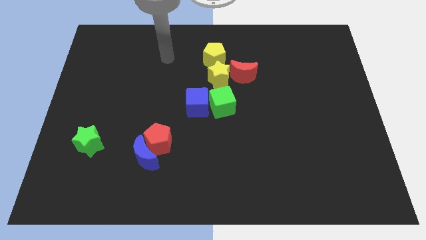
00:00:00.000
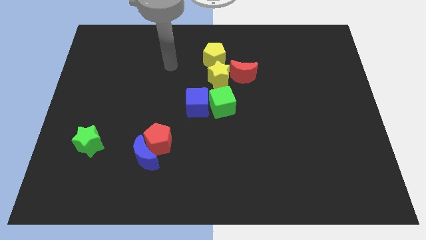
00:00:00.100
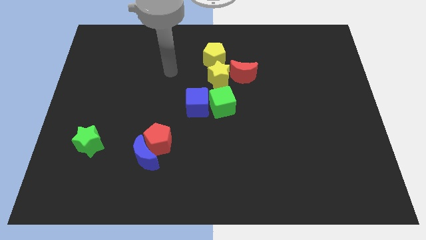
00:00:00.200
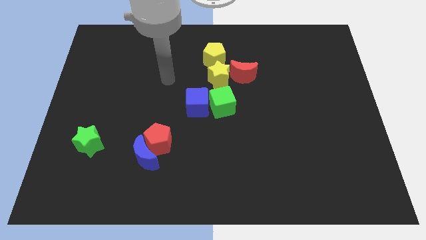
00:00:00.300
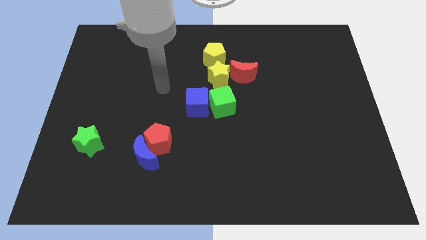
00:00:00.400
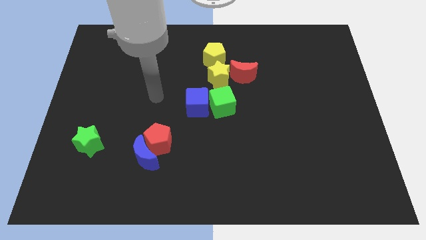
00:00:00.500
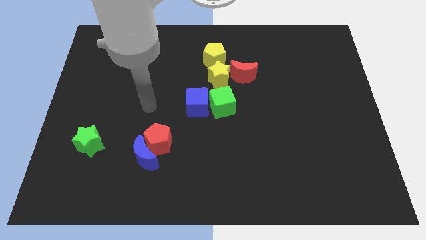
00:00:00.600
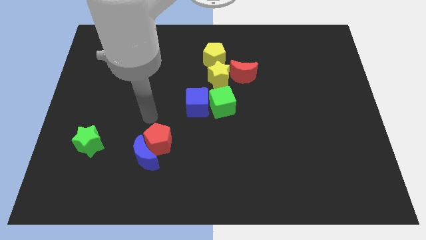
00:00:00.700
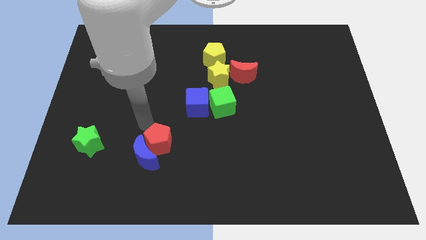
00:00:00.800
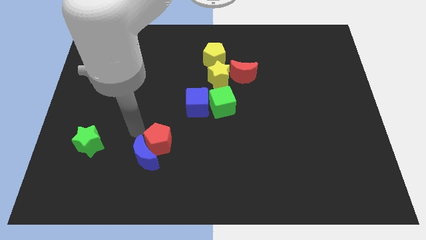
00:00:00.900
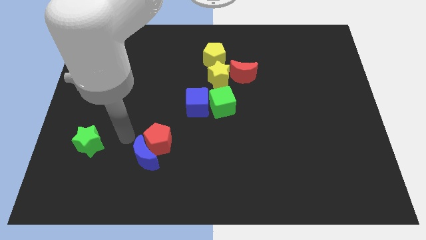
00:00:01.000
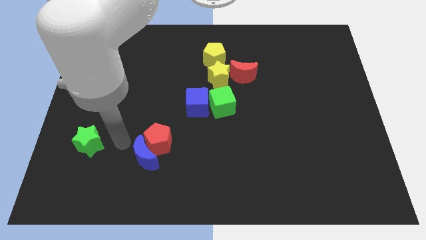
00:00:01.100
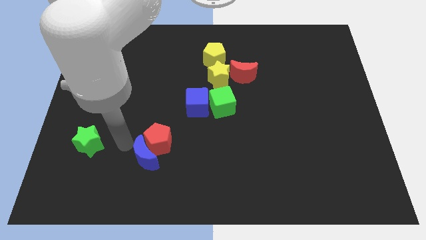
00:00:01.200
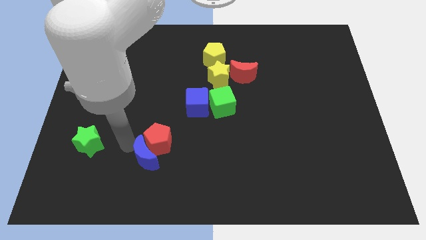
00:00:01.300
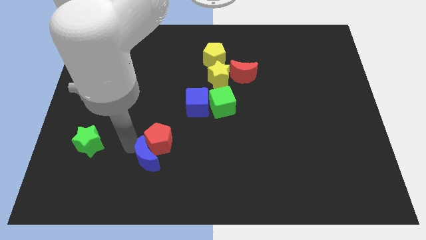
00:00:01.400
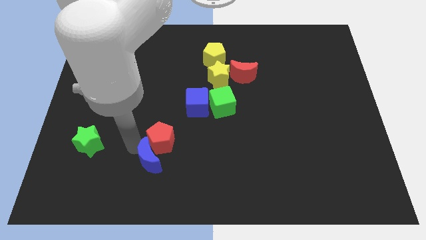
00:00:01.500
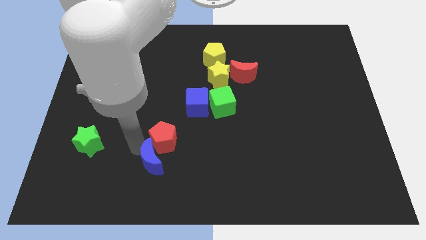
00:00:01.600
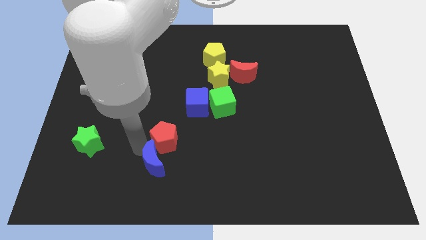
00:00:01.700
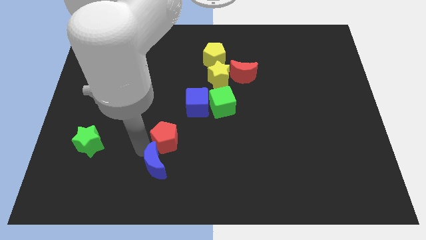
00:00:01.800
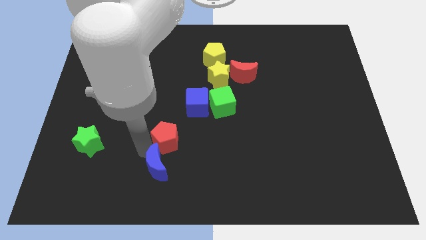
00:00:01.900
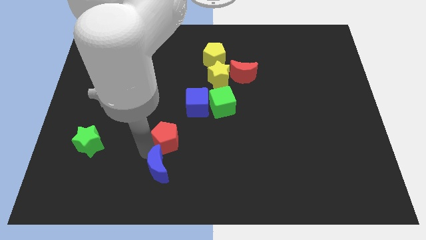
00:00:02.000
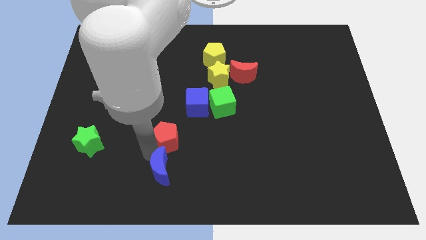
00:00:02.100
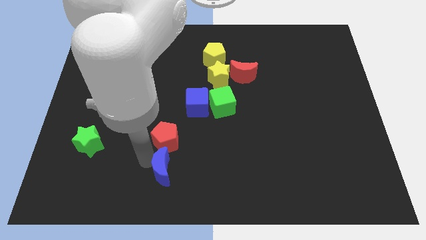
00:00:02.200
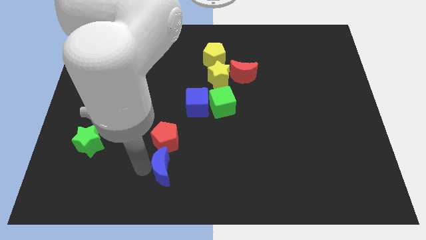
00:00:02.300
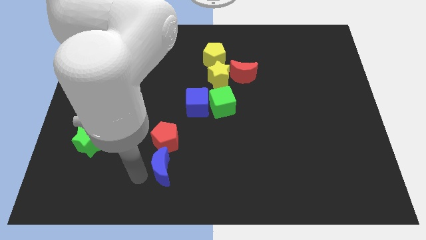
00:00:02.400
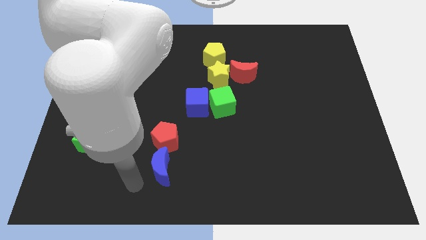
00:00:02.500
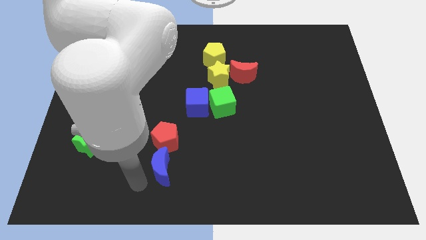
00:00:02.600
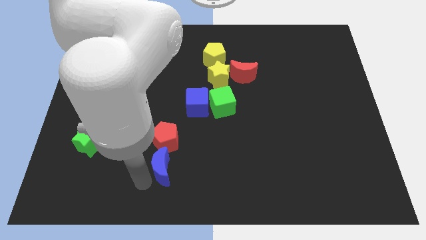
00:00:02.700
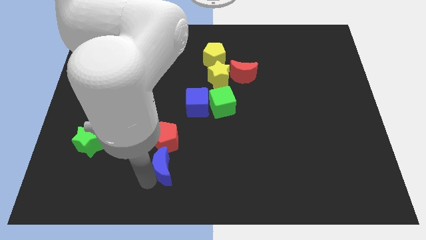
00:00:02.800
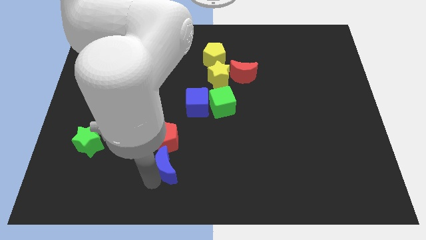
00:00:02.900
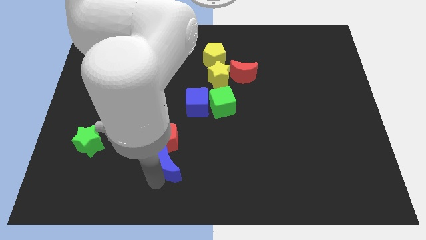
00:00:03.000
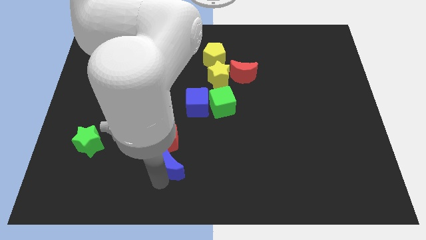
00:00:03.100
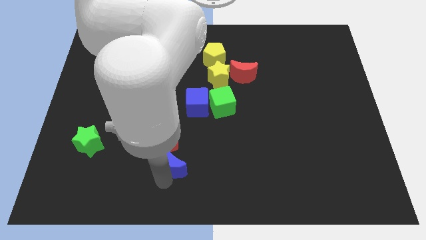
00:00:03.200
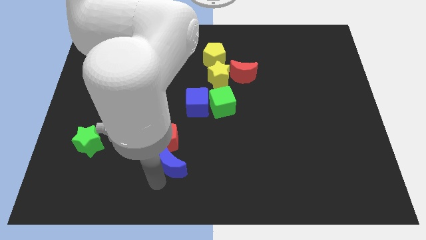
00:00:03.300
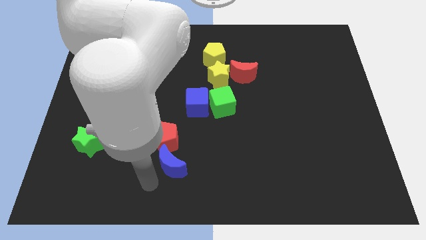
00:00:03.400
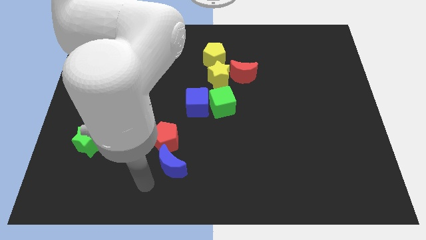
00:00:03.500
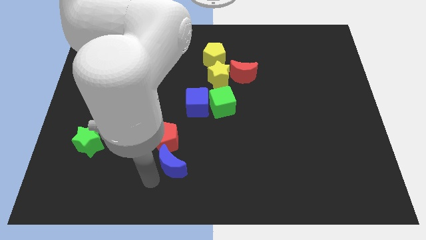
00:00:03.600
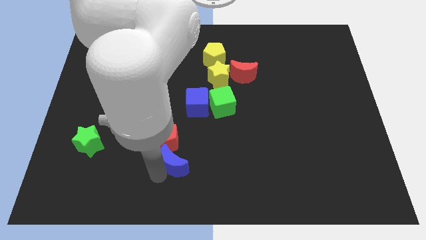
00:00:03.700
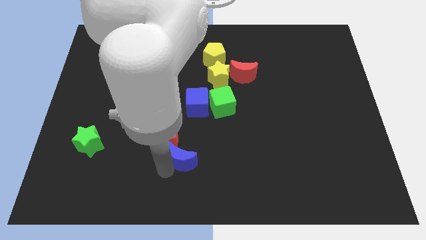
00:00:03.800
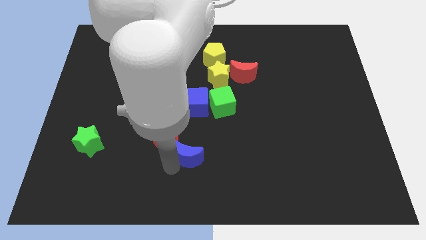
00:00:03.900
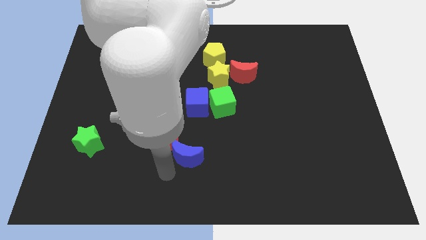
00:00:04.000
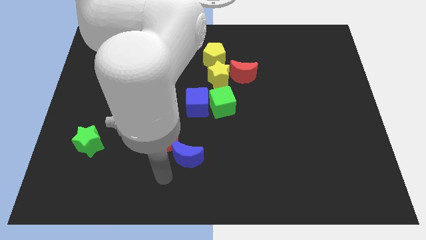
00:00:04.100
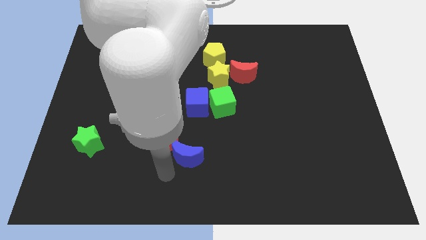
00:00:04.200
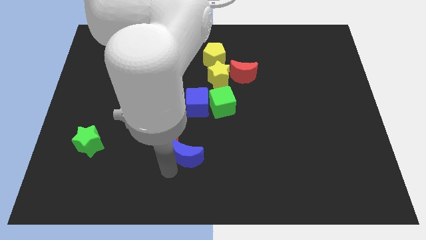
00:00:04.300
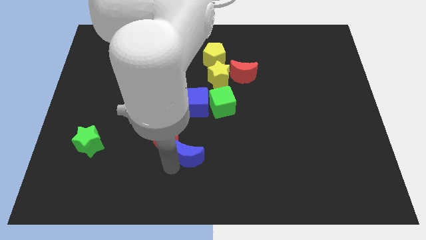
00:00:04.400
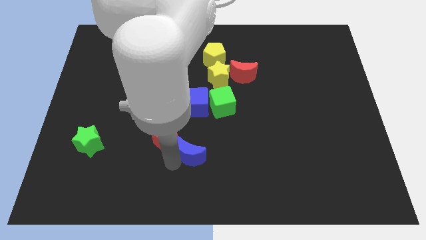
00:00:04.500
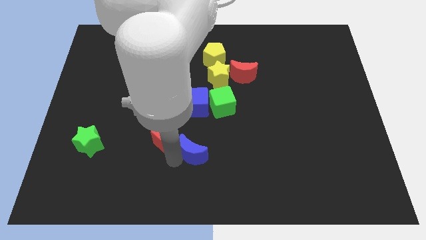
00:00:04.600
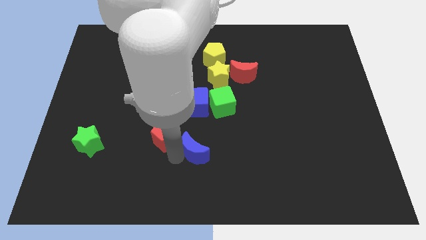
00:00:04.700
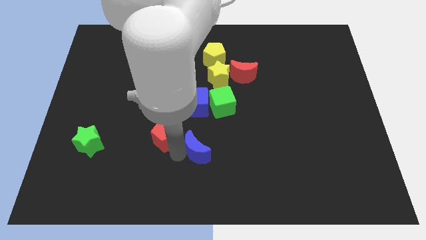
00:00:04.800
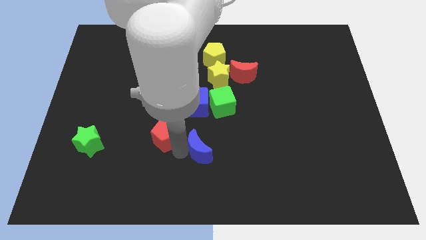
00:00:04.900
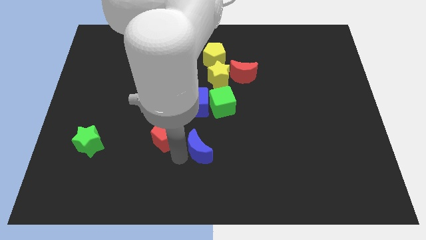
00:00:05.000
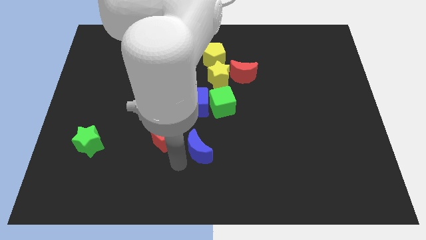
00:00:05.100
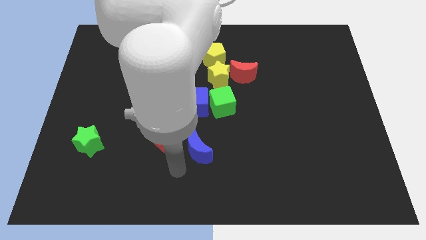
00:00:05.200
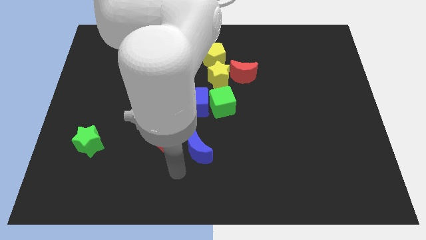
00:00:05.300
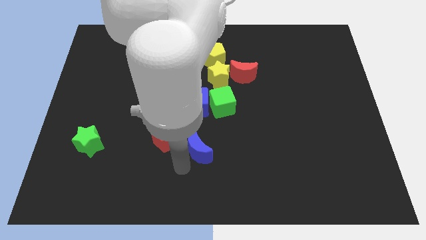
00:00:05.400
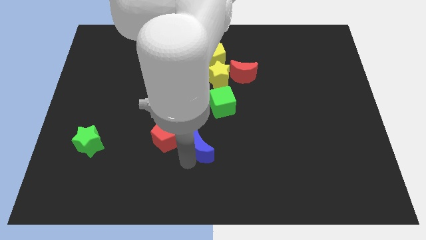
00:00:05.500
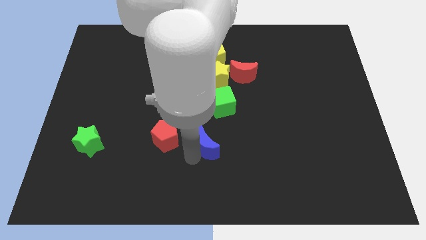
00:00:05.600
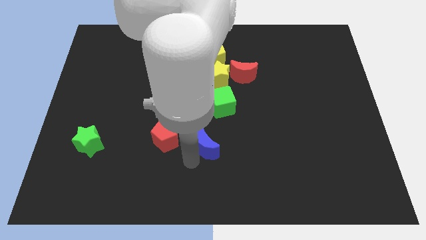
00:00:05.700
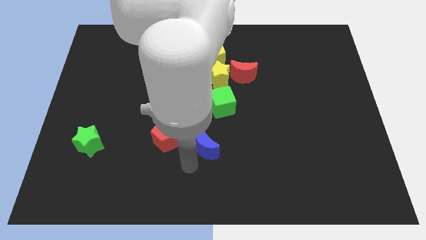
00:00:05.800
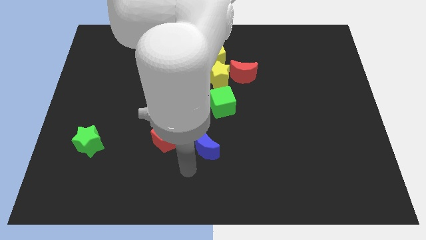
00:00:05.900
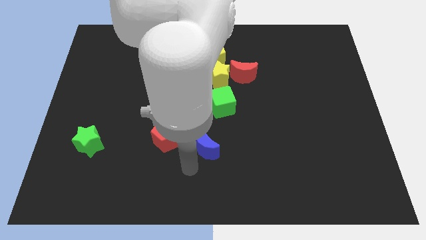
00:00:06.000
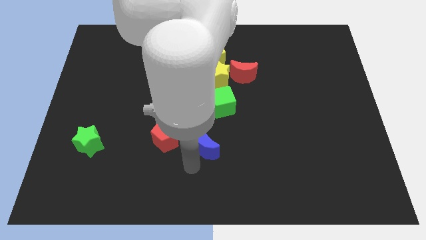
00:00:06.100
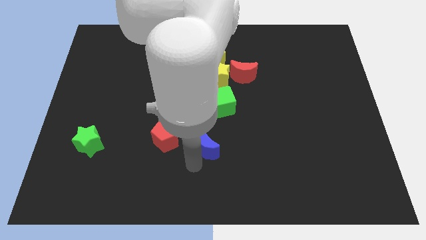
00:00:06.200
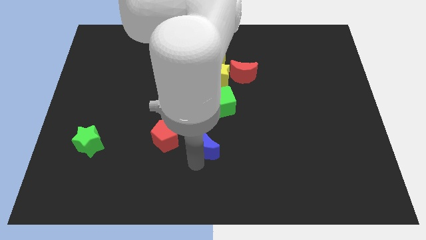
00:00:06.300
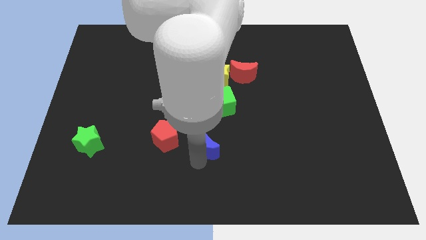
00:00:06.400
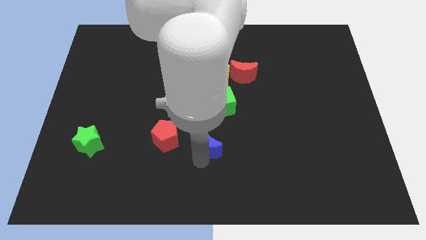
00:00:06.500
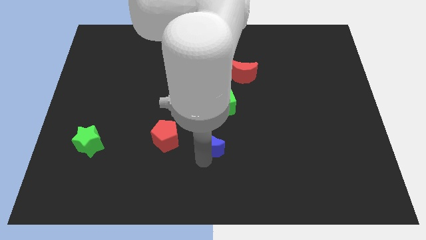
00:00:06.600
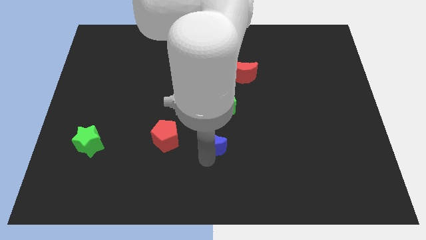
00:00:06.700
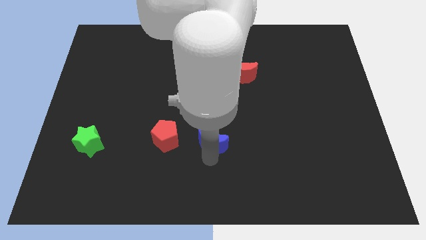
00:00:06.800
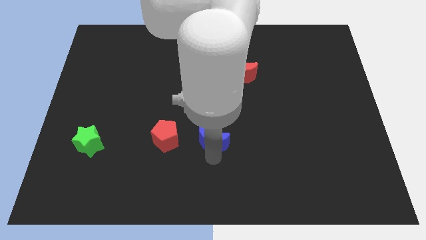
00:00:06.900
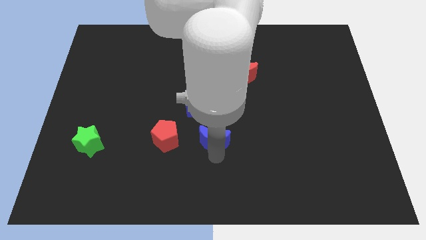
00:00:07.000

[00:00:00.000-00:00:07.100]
put the blue moon to the bottom right of the blue cube

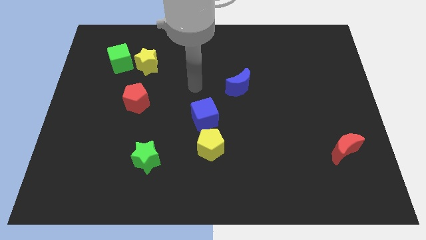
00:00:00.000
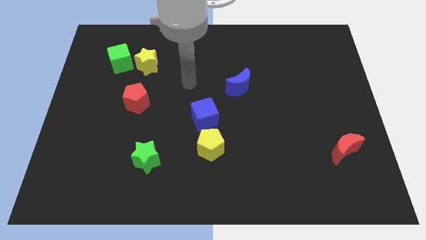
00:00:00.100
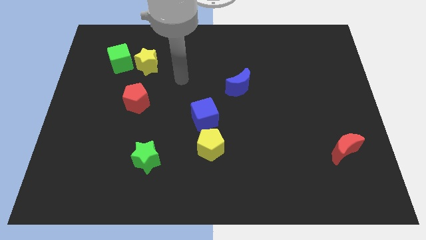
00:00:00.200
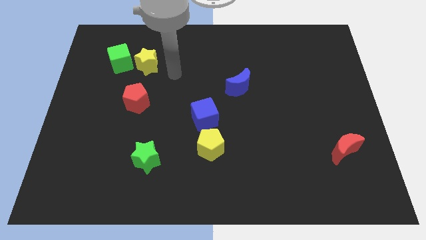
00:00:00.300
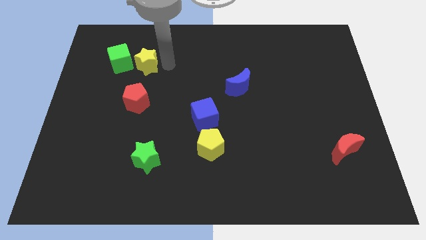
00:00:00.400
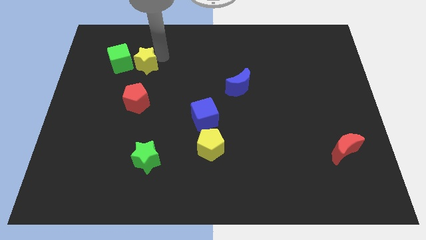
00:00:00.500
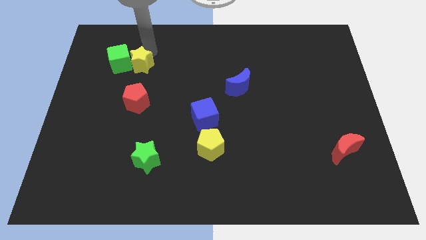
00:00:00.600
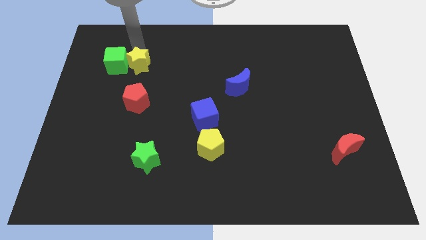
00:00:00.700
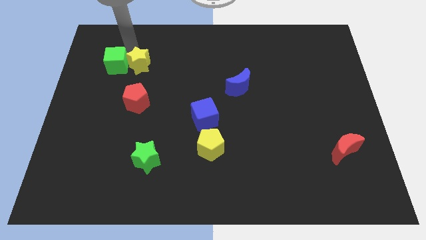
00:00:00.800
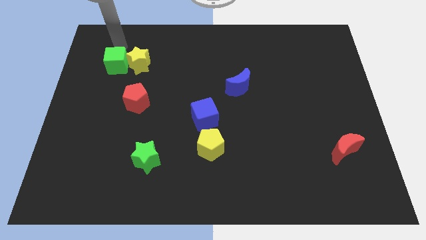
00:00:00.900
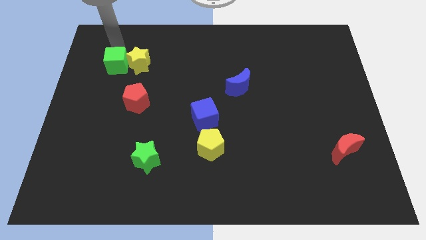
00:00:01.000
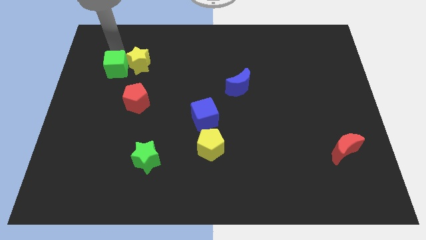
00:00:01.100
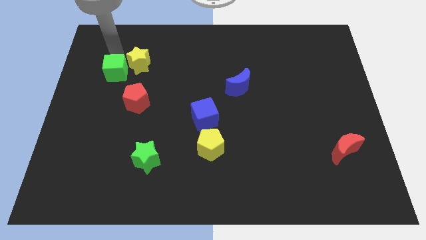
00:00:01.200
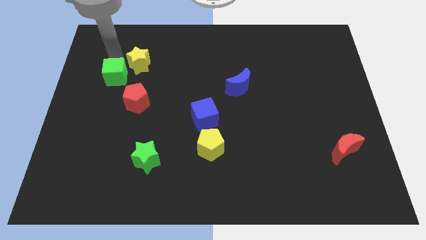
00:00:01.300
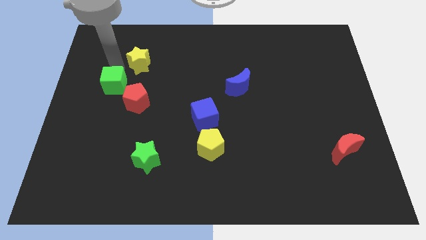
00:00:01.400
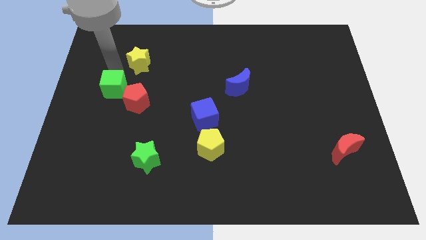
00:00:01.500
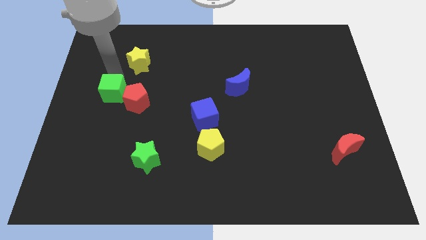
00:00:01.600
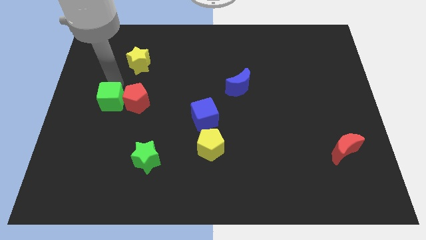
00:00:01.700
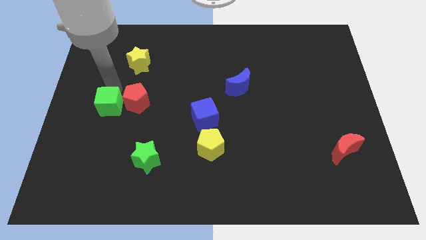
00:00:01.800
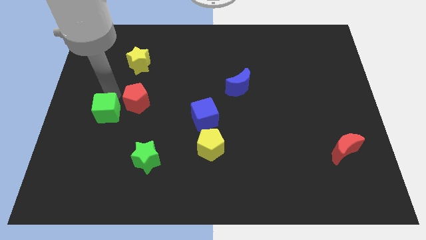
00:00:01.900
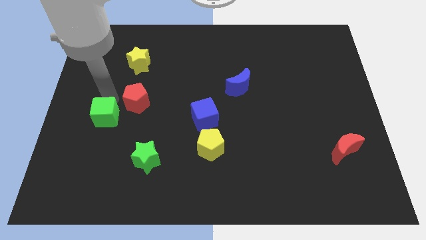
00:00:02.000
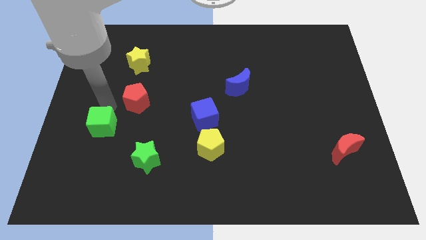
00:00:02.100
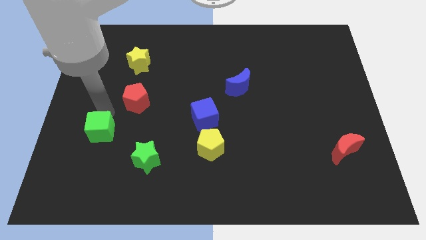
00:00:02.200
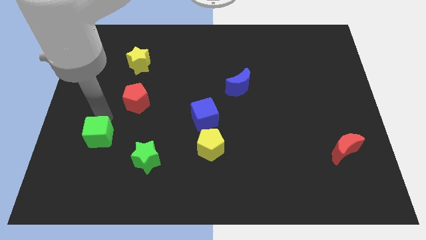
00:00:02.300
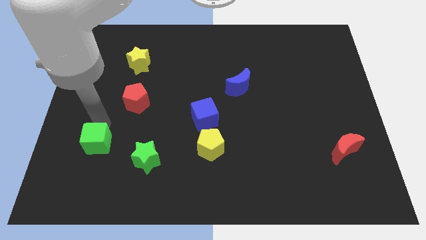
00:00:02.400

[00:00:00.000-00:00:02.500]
push the green cube just left of the green star
